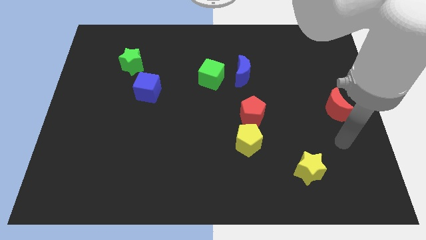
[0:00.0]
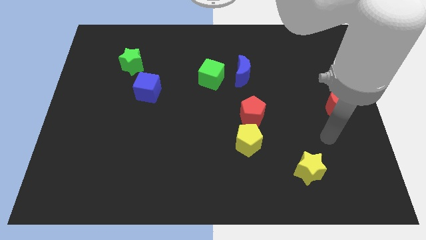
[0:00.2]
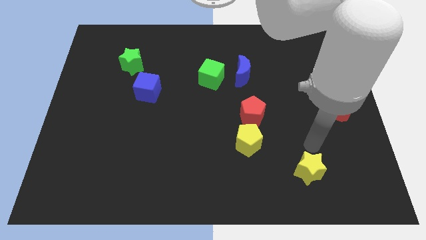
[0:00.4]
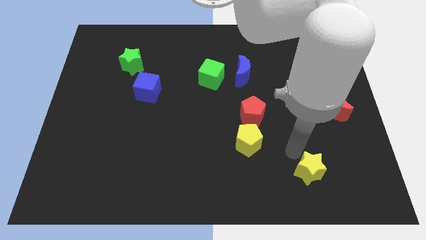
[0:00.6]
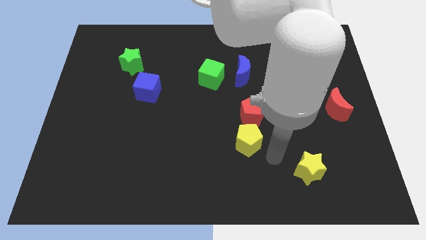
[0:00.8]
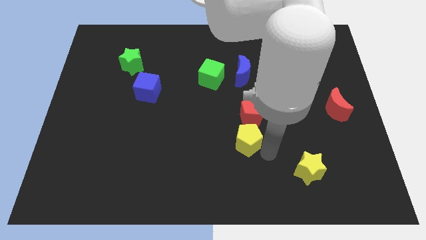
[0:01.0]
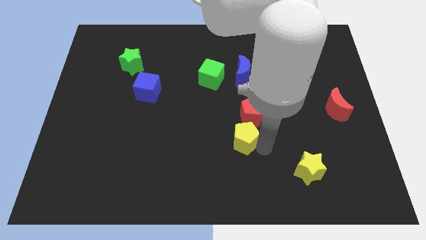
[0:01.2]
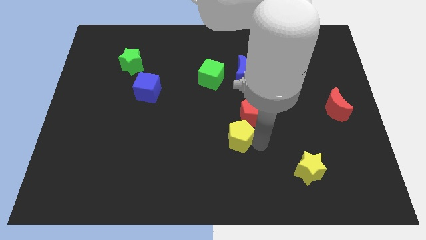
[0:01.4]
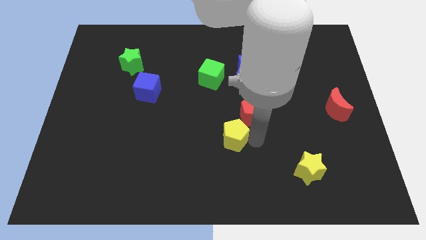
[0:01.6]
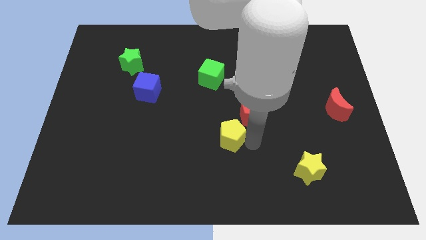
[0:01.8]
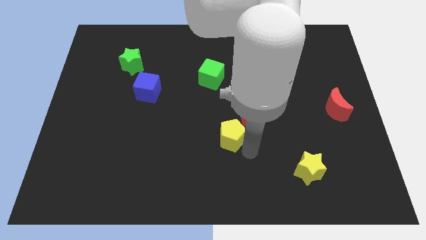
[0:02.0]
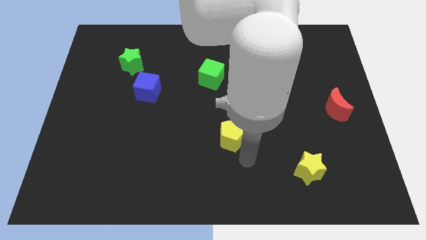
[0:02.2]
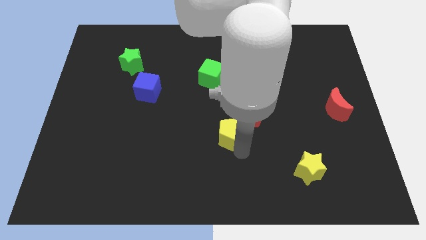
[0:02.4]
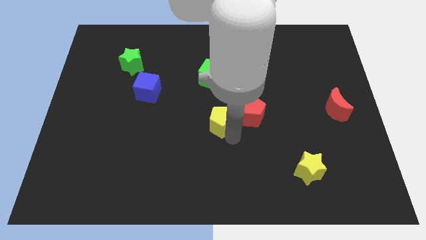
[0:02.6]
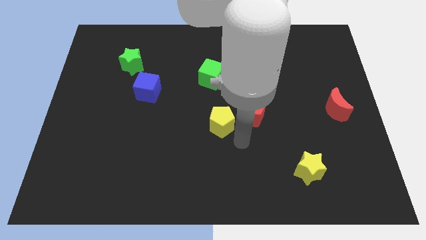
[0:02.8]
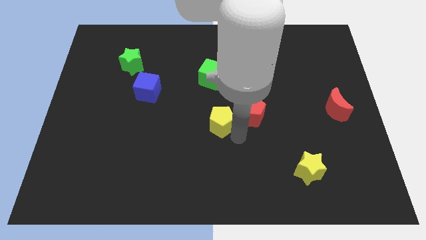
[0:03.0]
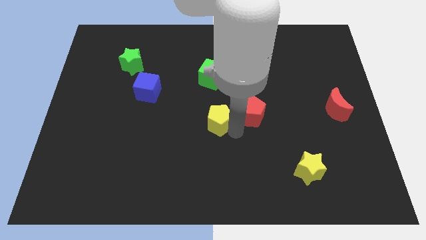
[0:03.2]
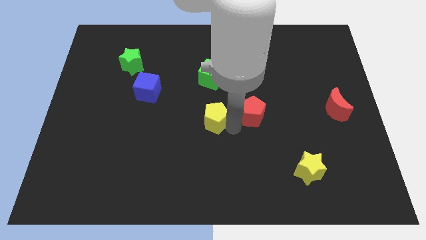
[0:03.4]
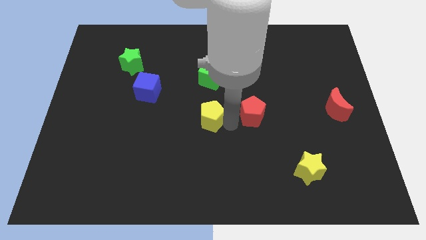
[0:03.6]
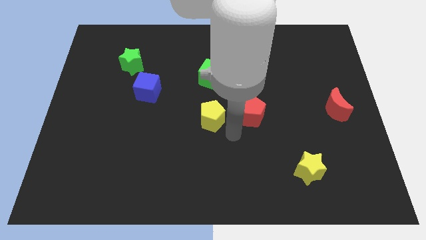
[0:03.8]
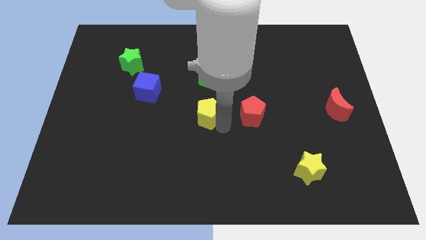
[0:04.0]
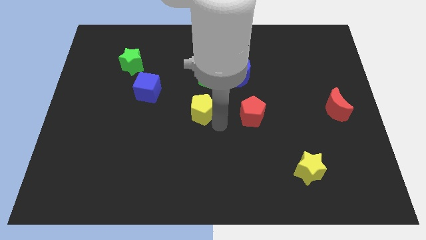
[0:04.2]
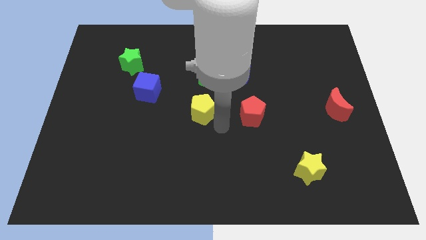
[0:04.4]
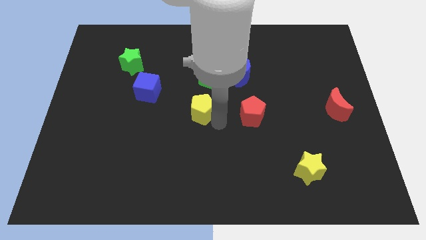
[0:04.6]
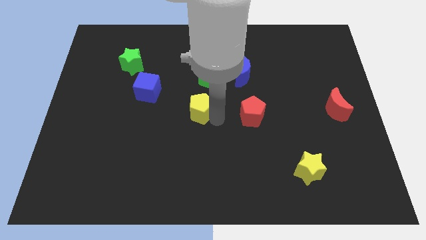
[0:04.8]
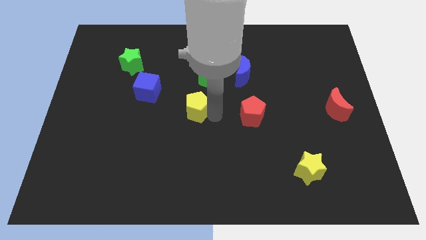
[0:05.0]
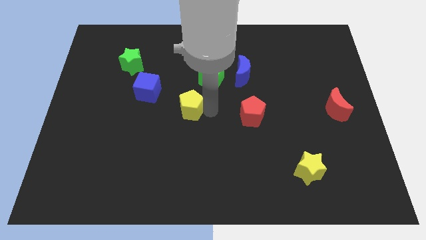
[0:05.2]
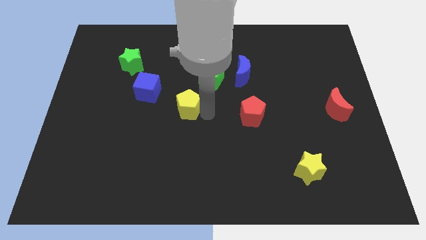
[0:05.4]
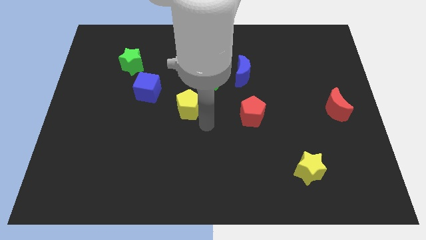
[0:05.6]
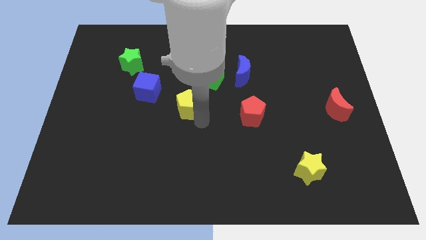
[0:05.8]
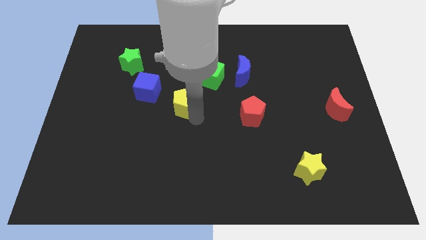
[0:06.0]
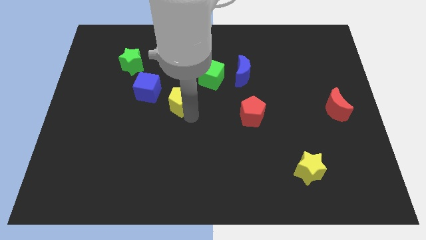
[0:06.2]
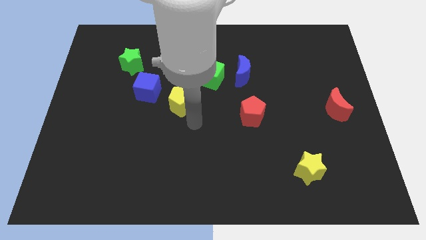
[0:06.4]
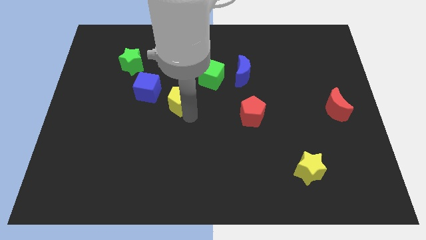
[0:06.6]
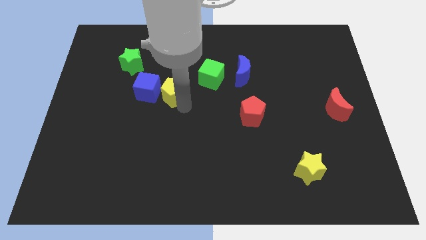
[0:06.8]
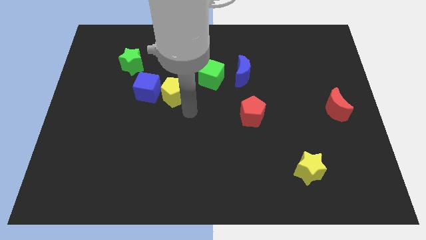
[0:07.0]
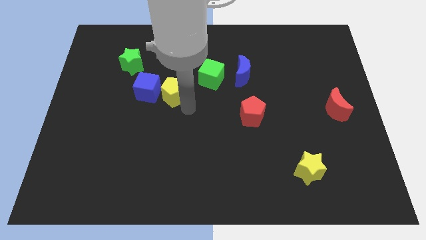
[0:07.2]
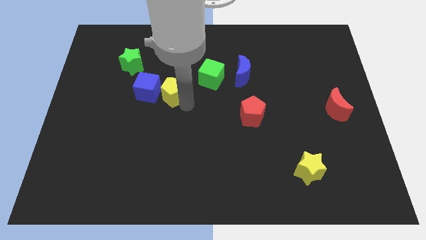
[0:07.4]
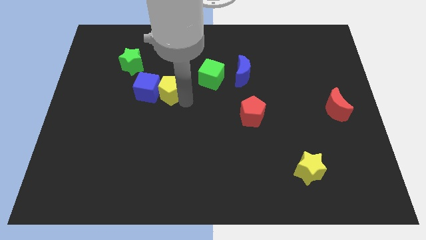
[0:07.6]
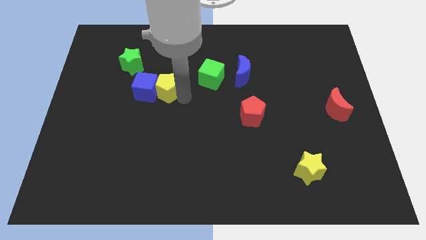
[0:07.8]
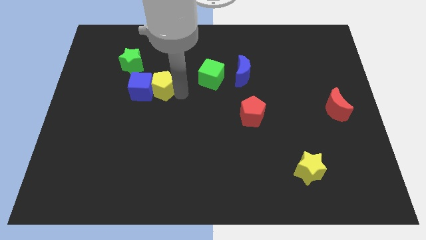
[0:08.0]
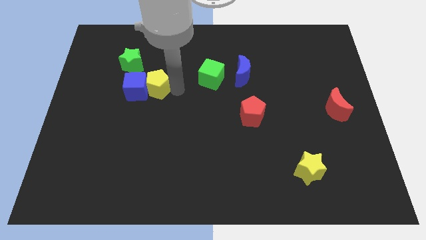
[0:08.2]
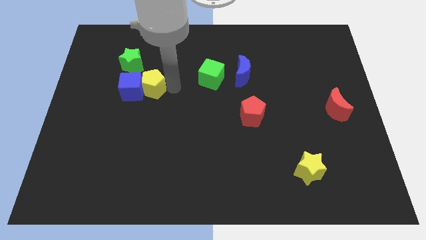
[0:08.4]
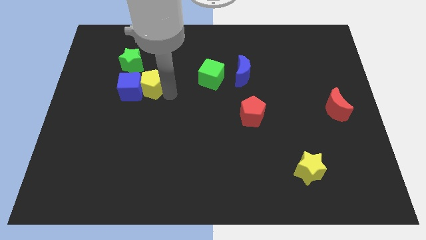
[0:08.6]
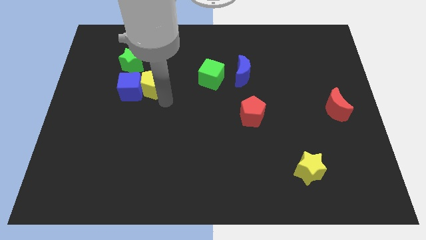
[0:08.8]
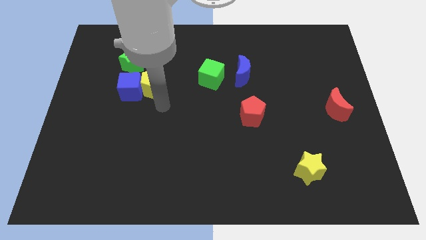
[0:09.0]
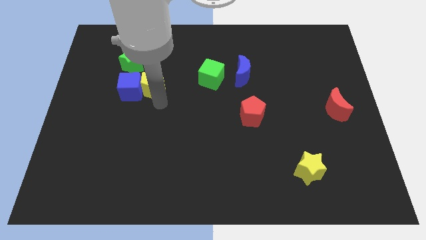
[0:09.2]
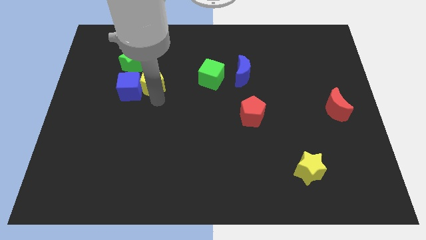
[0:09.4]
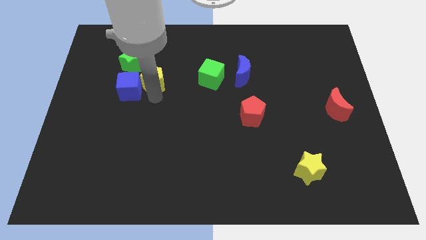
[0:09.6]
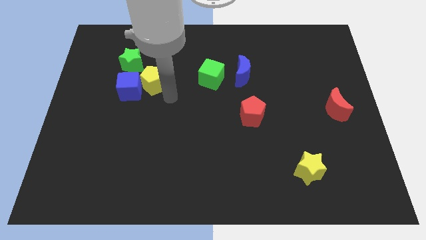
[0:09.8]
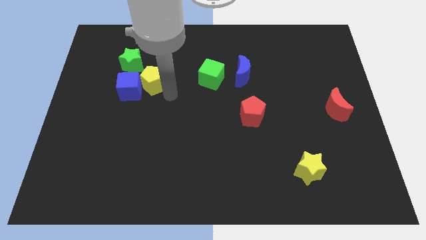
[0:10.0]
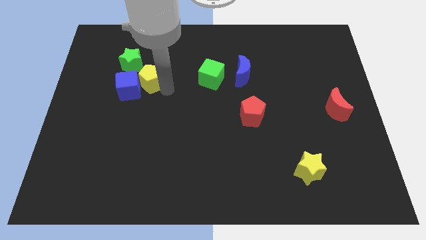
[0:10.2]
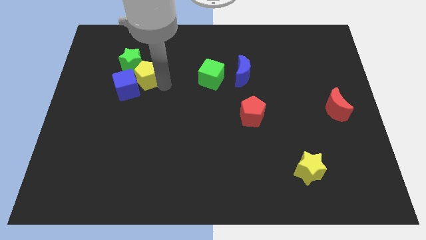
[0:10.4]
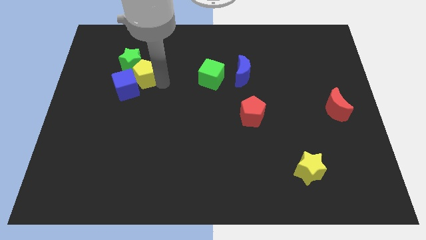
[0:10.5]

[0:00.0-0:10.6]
move the yellow pentagon to the green star

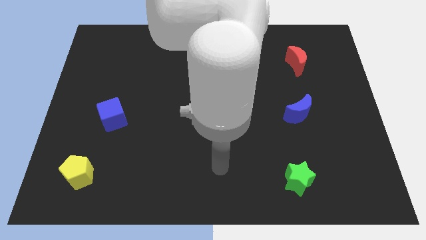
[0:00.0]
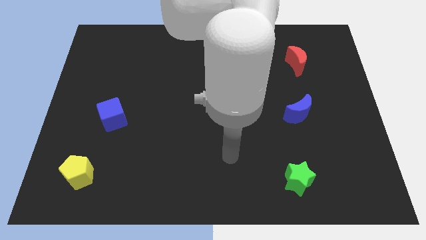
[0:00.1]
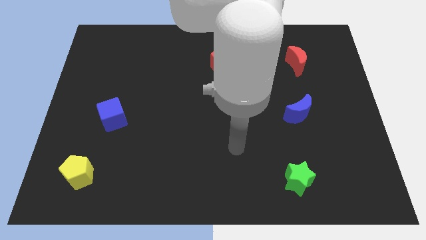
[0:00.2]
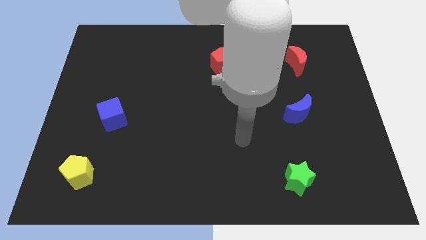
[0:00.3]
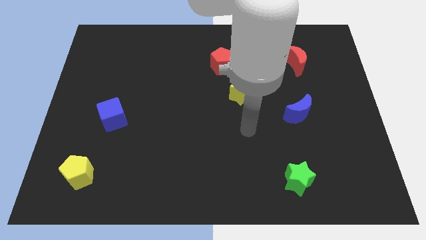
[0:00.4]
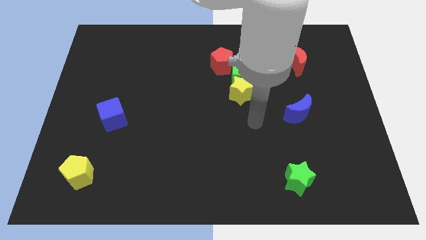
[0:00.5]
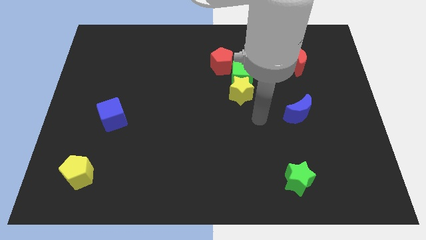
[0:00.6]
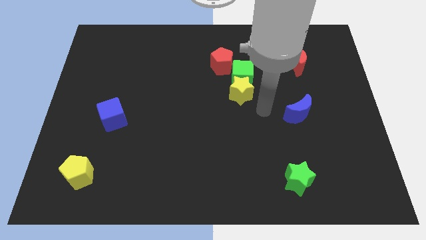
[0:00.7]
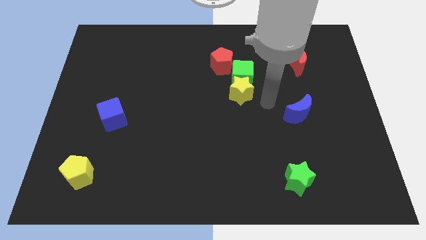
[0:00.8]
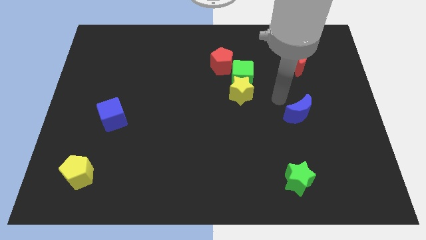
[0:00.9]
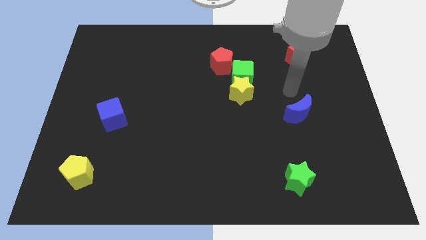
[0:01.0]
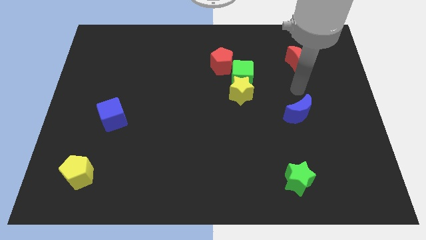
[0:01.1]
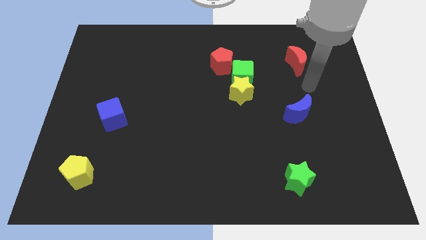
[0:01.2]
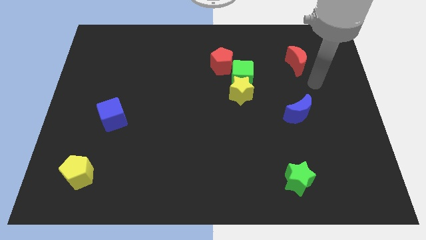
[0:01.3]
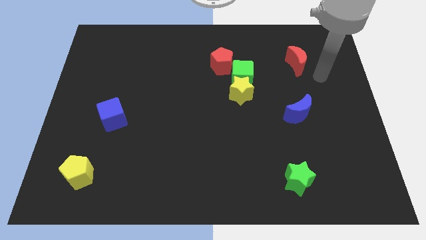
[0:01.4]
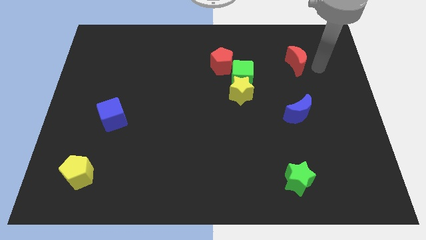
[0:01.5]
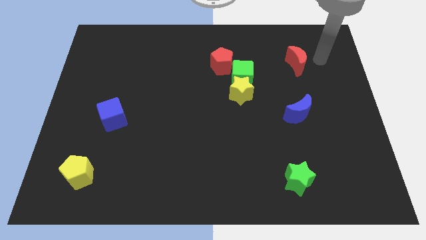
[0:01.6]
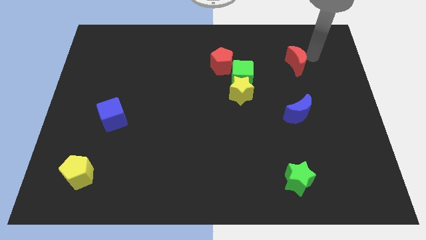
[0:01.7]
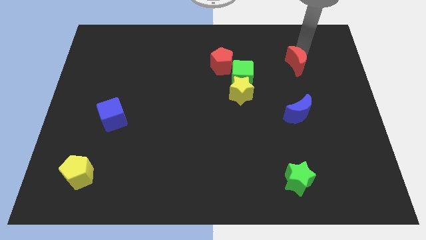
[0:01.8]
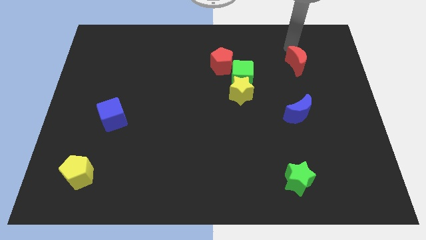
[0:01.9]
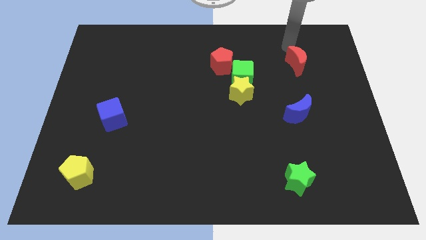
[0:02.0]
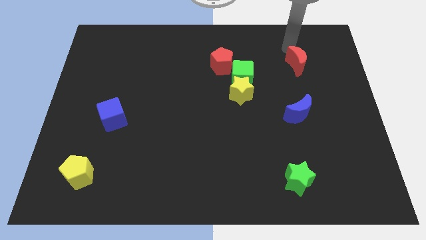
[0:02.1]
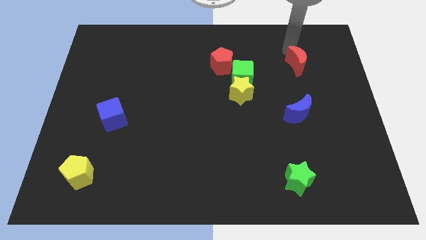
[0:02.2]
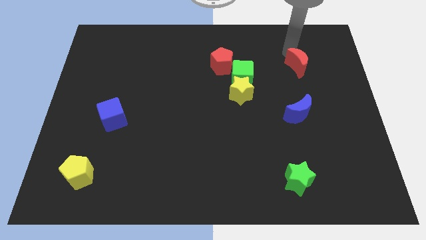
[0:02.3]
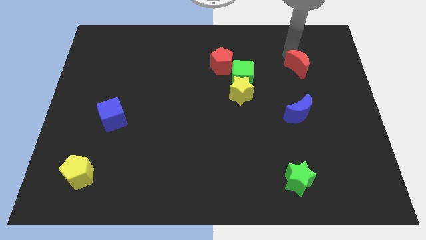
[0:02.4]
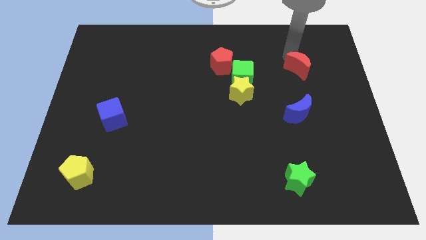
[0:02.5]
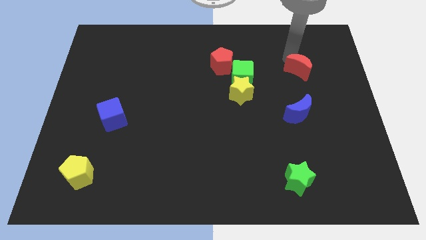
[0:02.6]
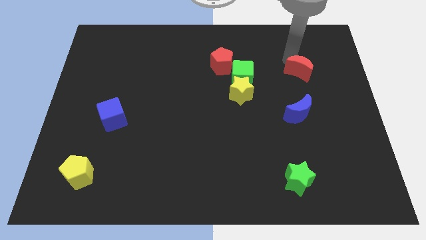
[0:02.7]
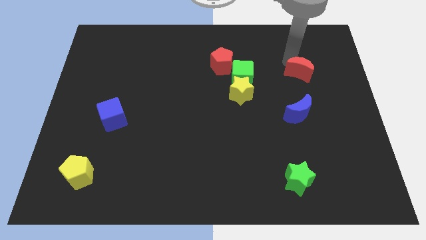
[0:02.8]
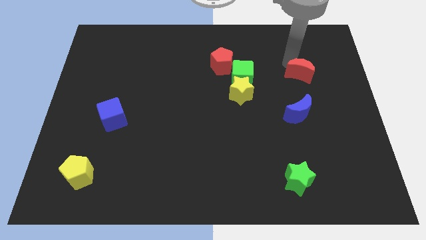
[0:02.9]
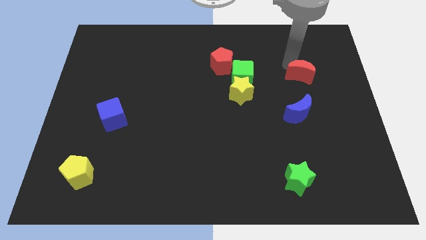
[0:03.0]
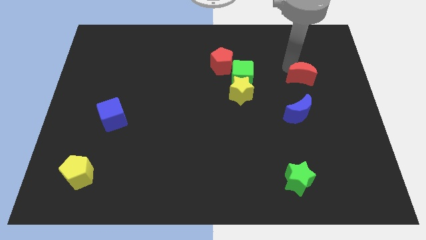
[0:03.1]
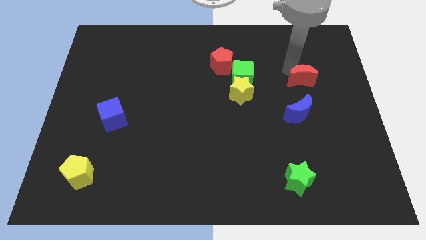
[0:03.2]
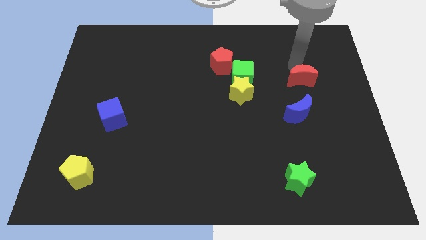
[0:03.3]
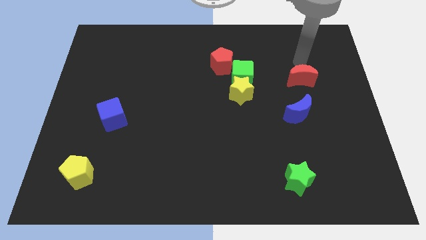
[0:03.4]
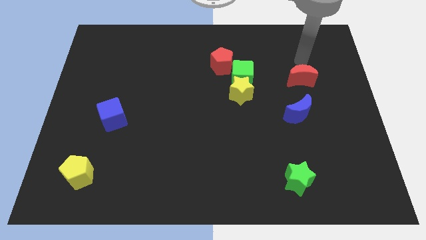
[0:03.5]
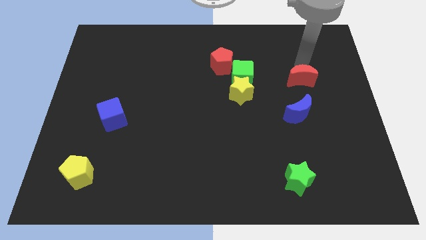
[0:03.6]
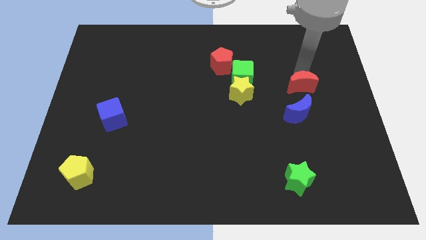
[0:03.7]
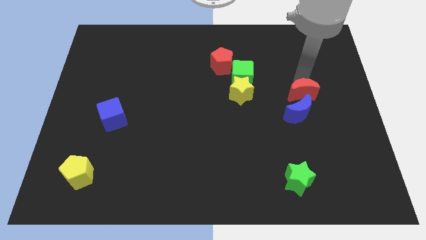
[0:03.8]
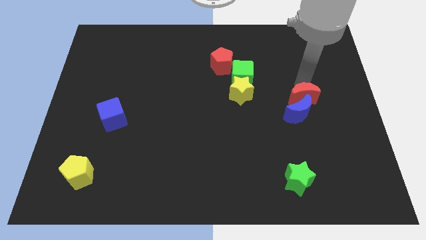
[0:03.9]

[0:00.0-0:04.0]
put the red moon next to the blue moon
